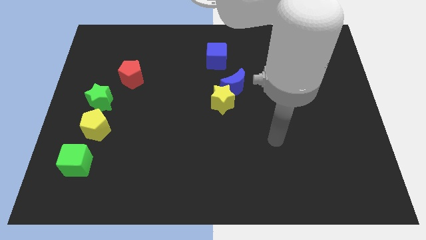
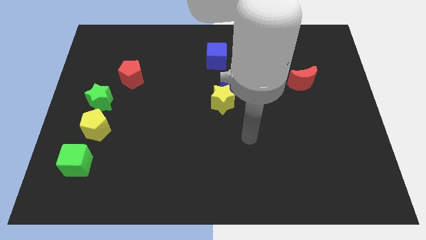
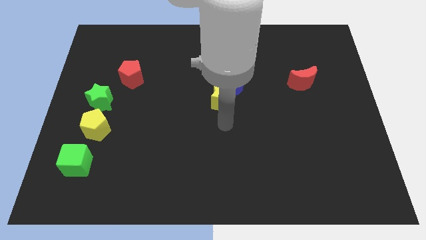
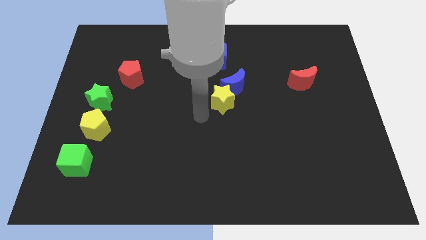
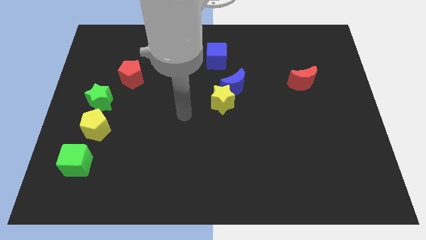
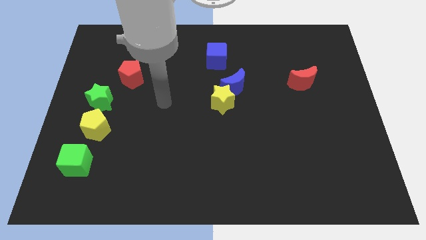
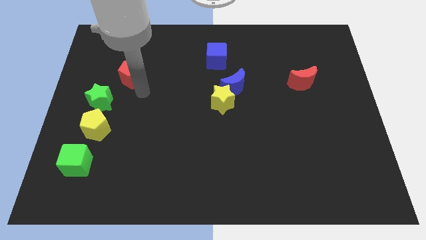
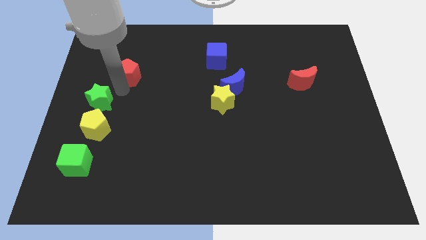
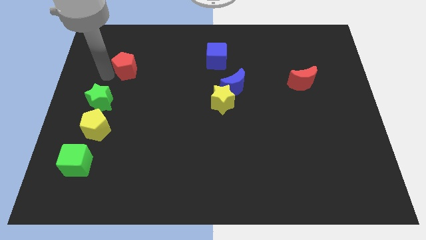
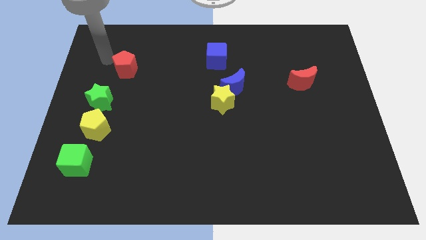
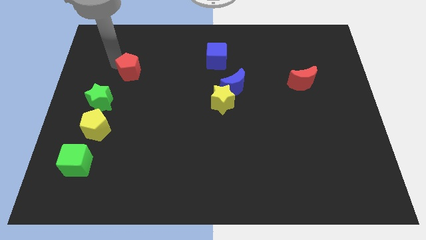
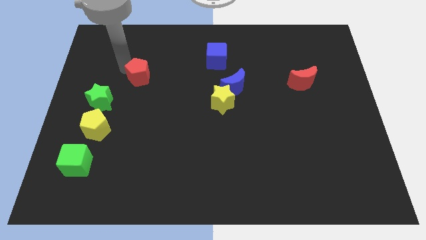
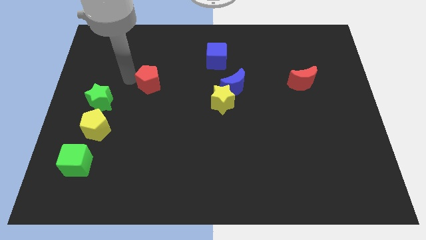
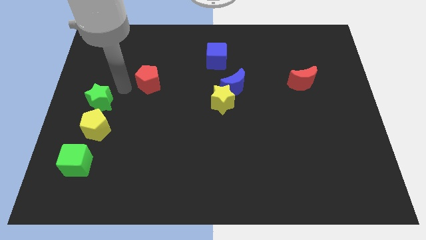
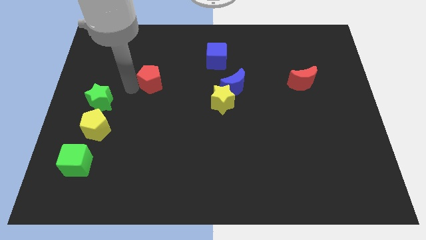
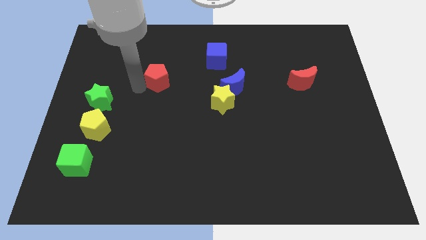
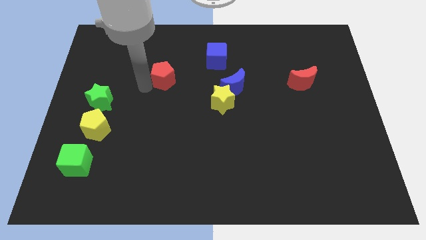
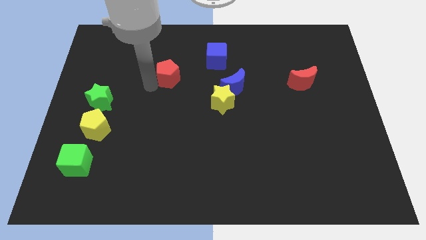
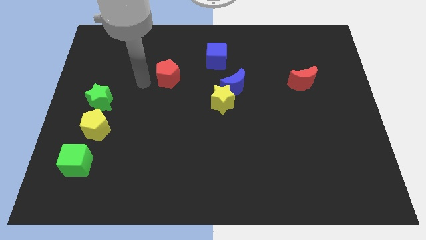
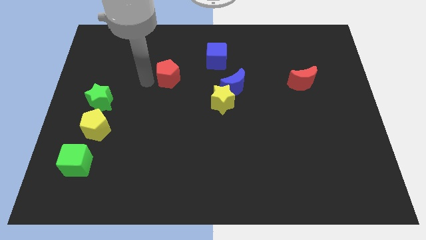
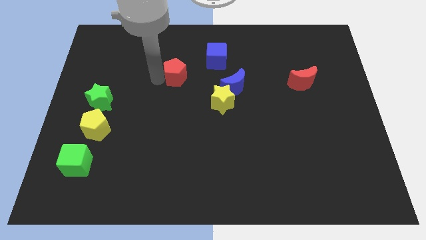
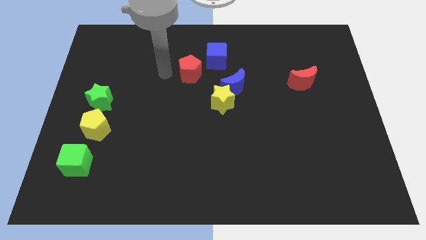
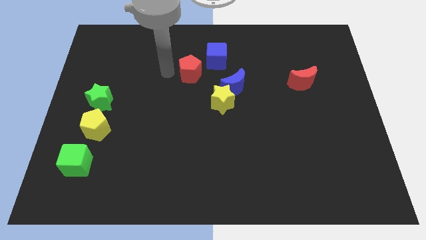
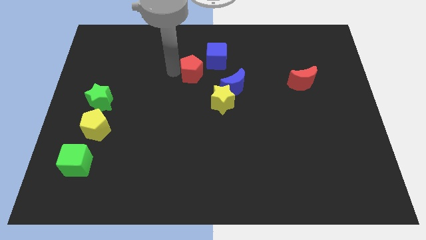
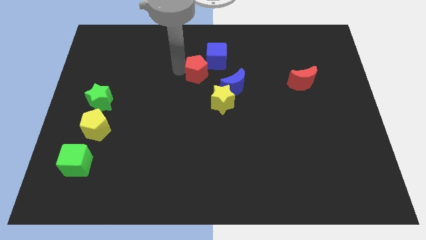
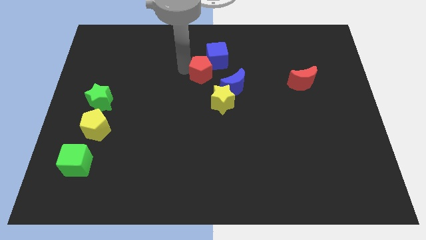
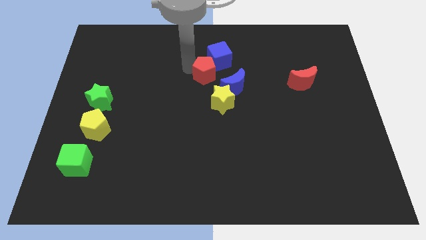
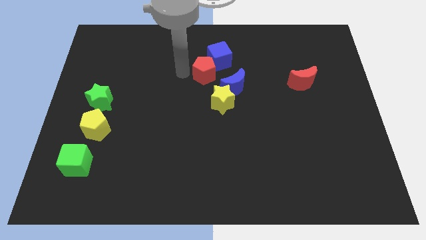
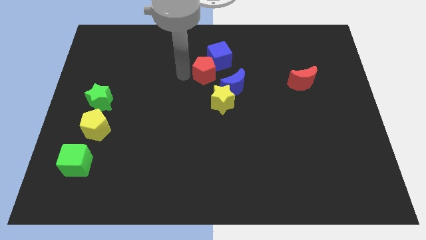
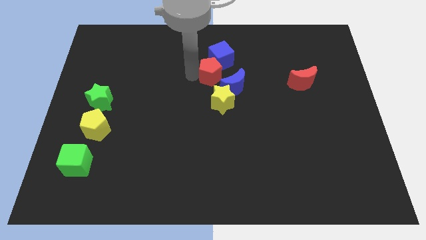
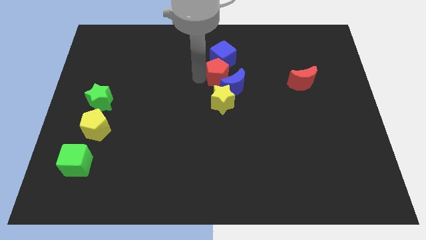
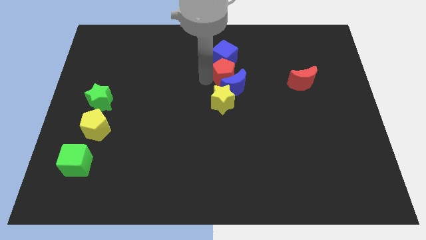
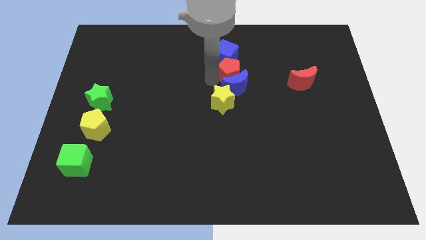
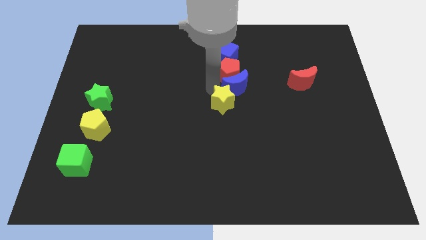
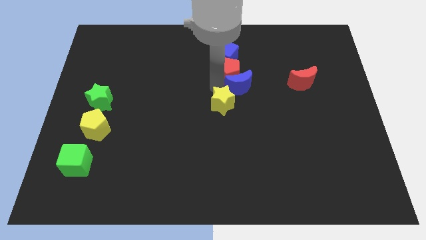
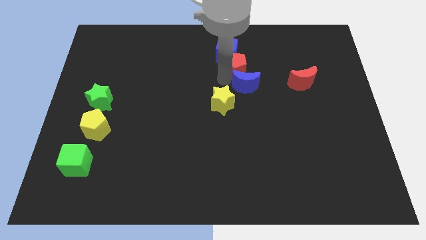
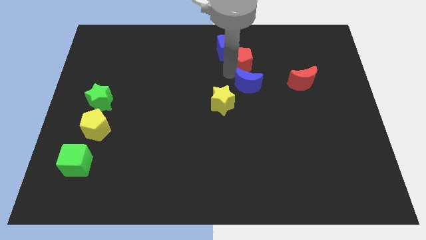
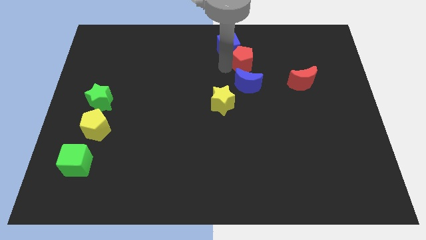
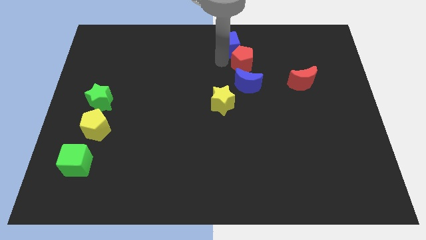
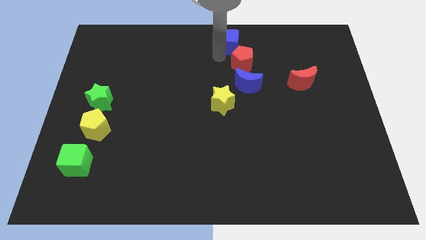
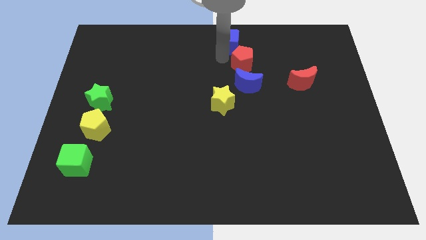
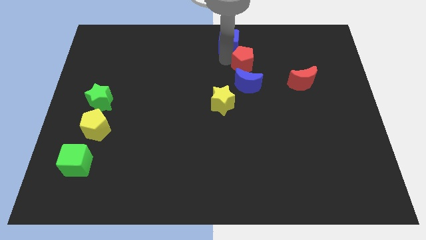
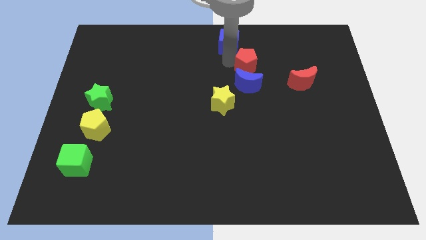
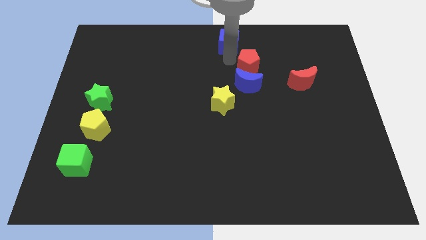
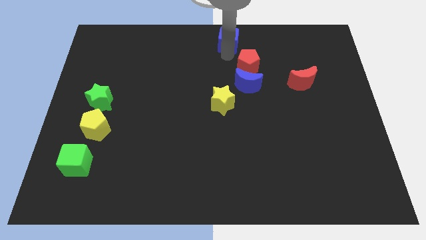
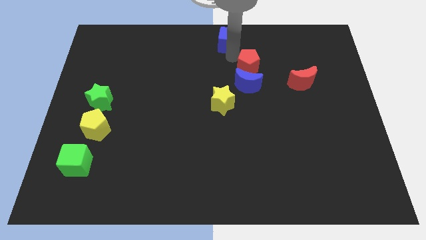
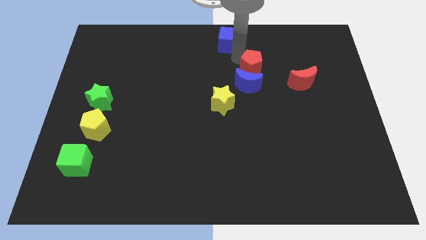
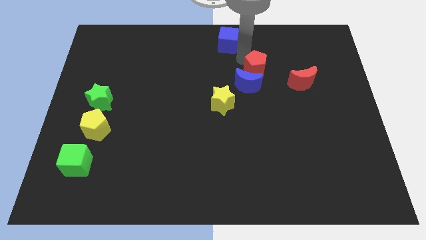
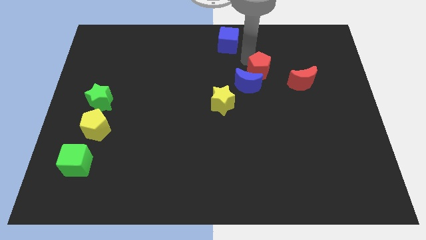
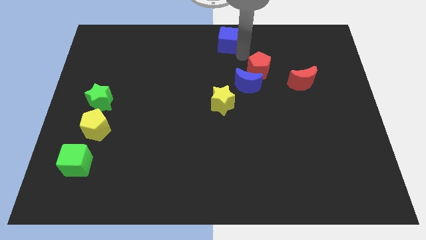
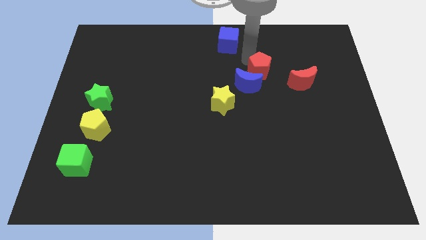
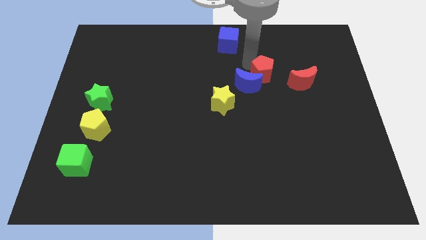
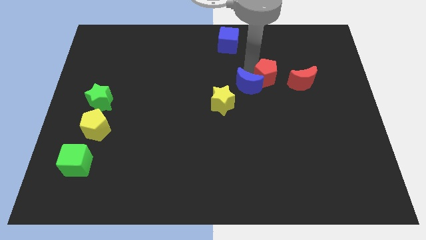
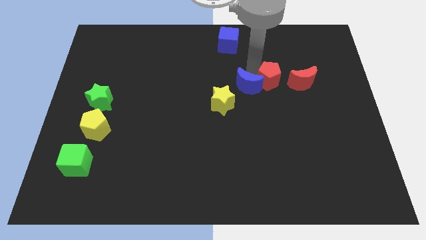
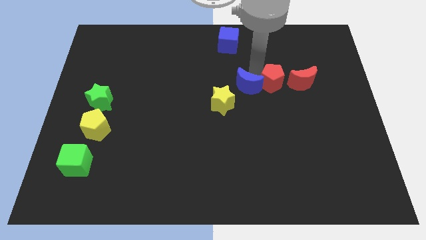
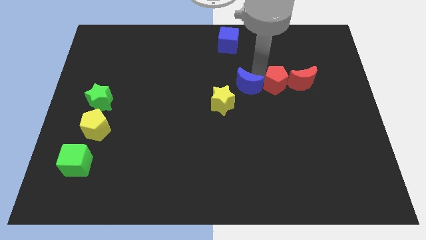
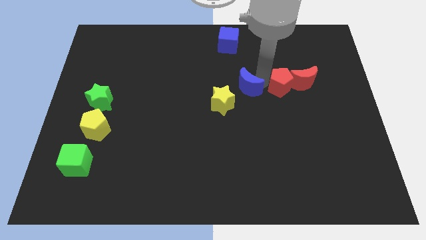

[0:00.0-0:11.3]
put the red pentagon towards the red moon

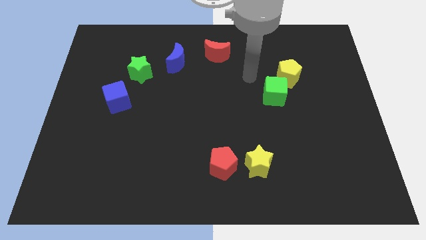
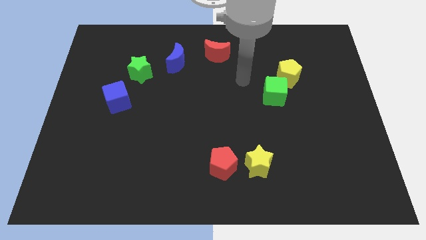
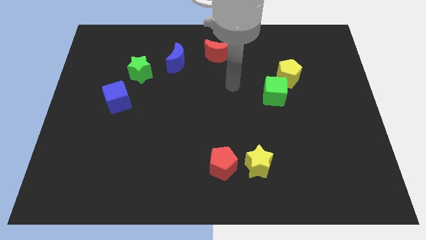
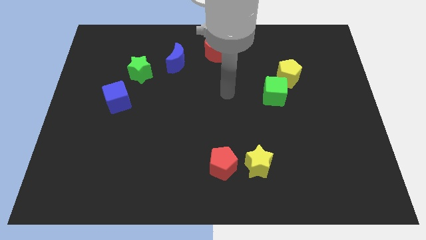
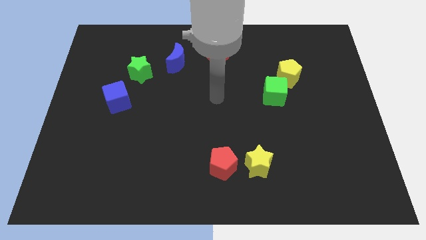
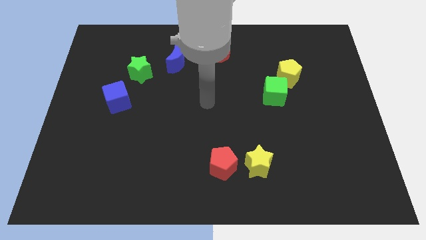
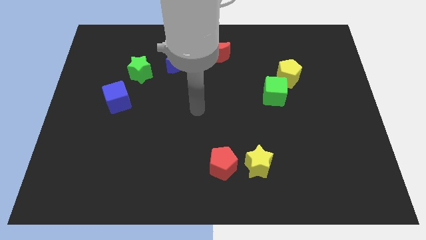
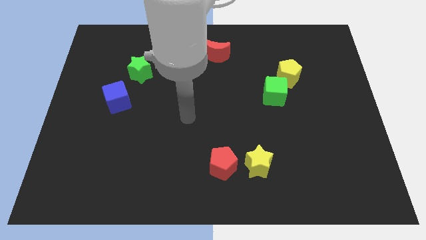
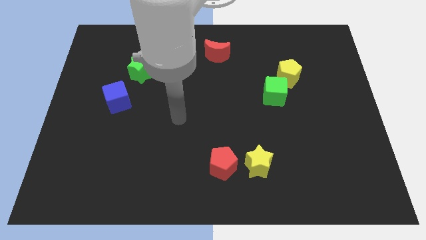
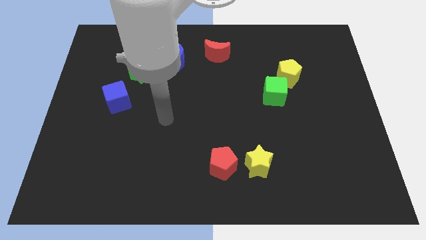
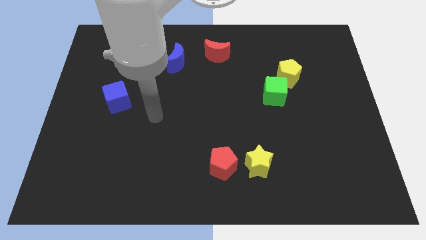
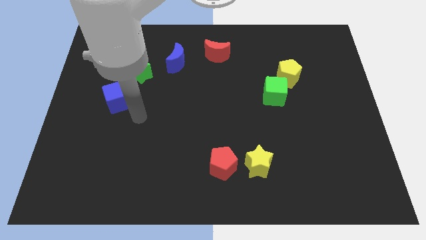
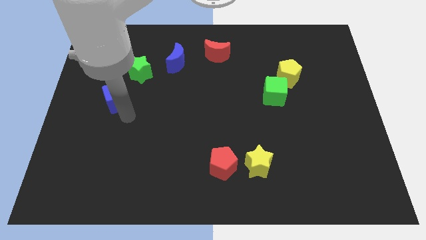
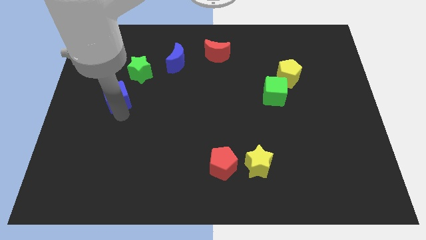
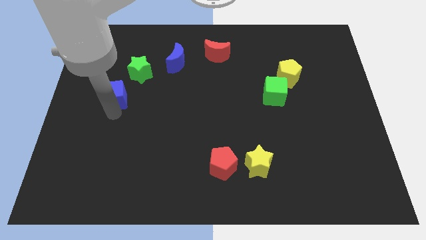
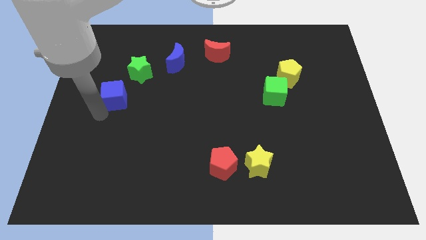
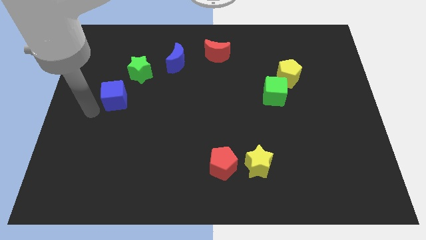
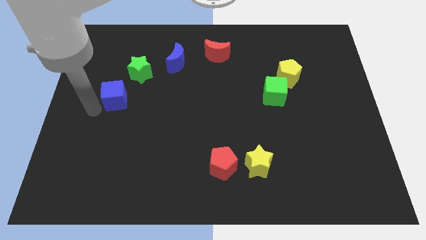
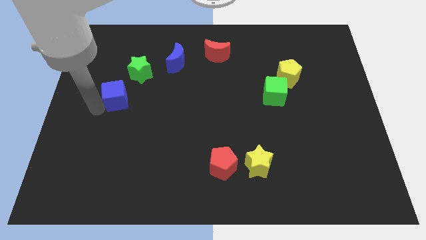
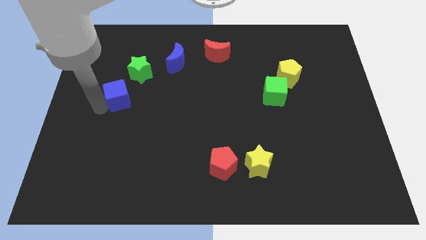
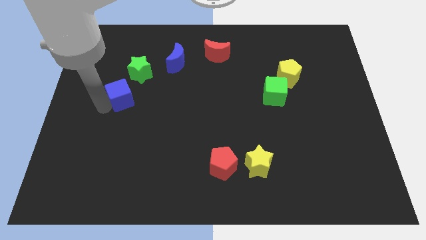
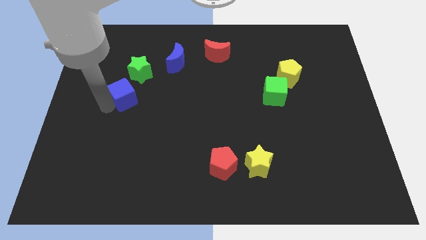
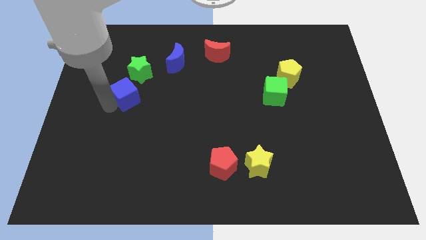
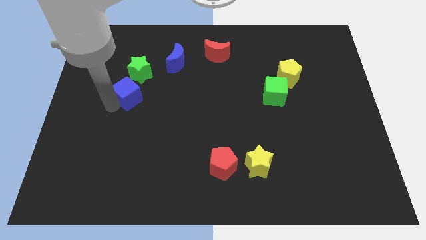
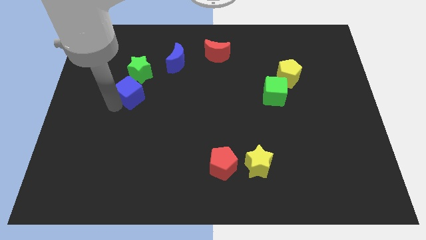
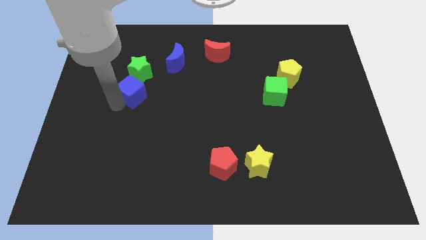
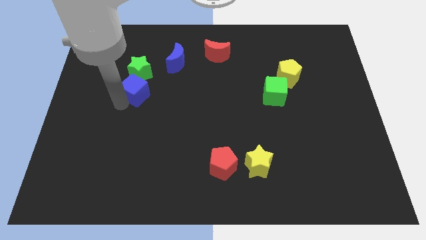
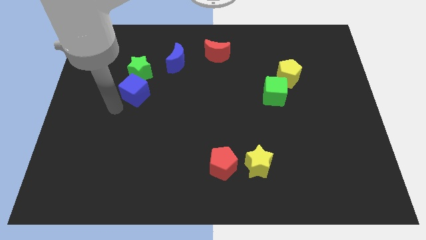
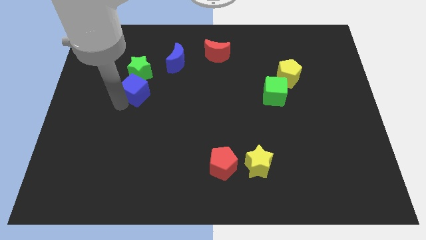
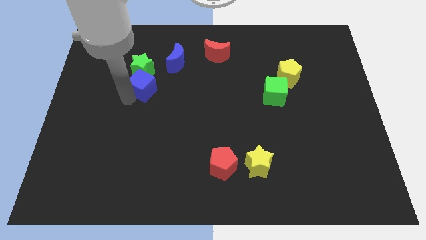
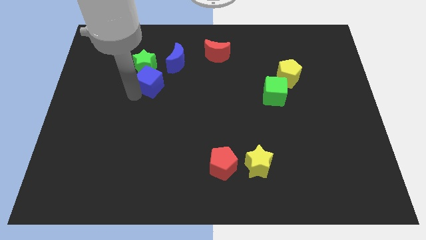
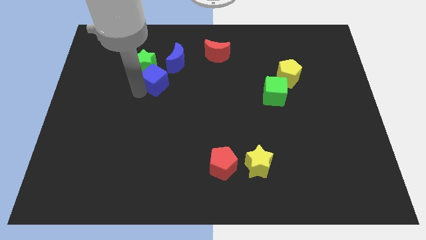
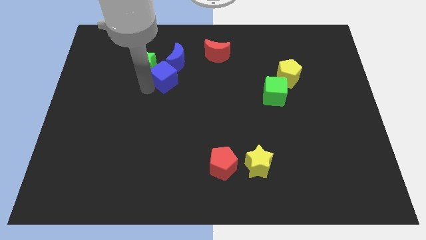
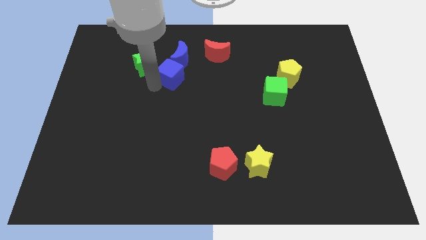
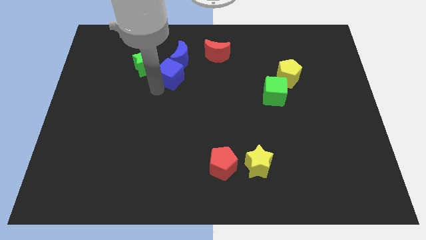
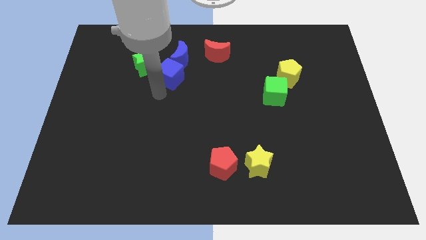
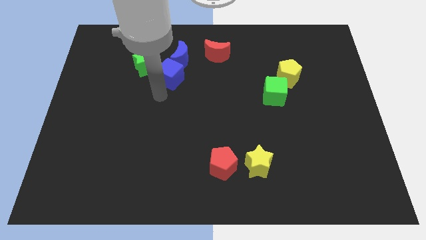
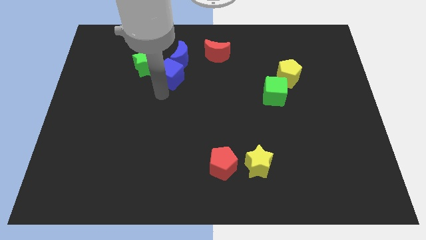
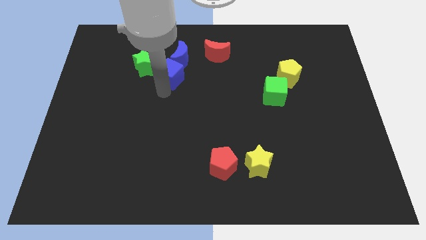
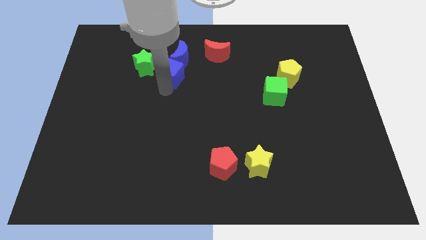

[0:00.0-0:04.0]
put the blue cube towards the blue moon
